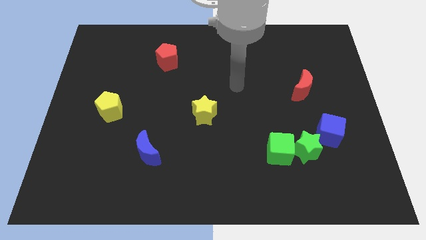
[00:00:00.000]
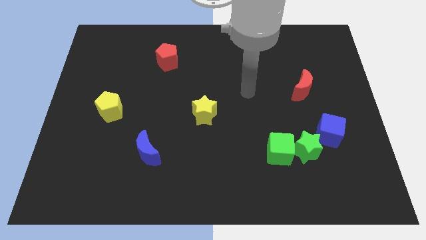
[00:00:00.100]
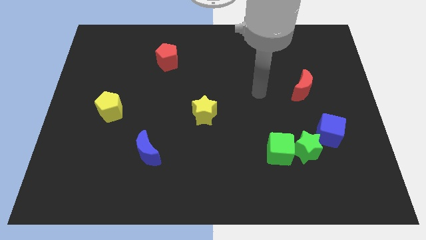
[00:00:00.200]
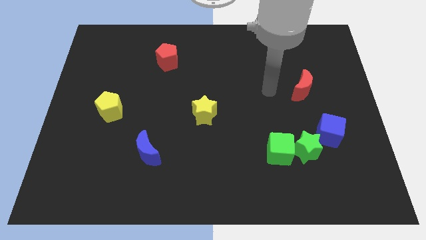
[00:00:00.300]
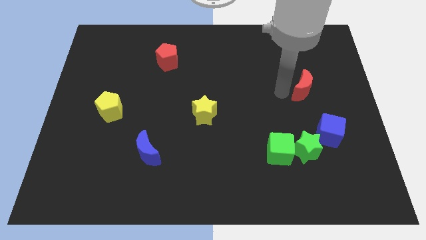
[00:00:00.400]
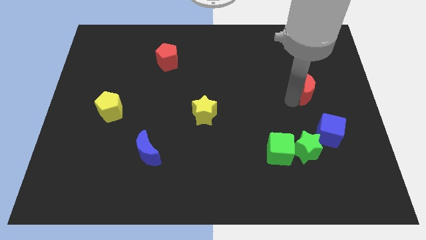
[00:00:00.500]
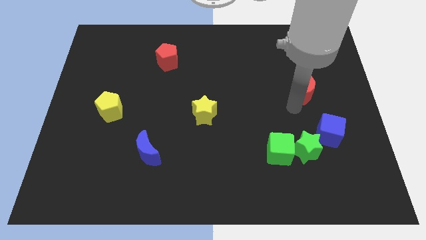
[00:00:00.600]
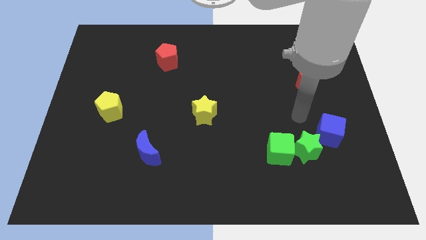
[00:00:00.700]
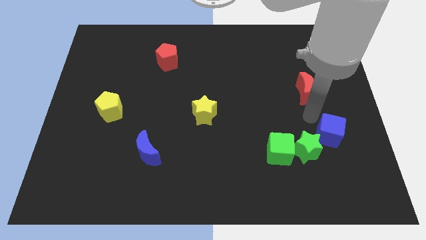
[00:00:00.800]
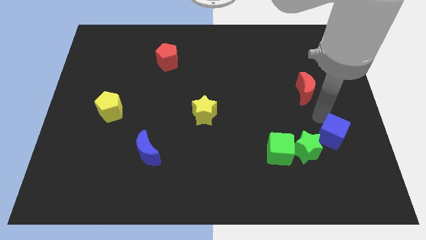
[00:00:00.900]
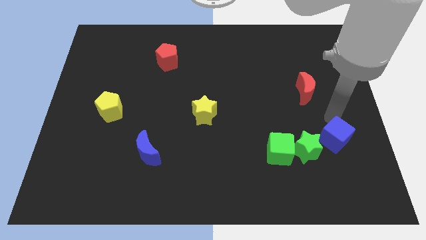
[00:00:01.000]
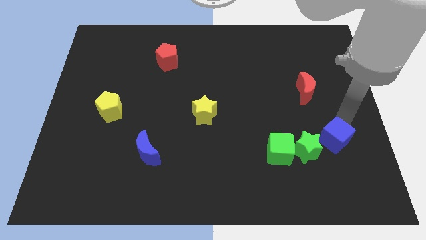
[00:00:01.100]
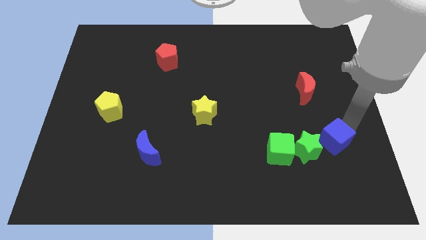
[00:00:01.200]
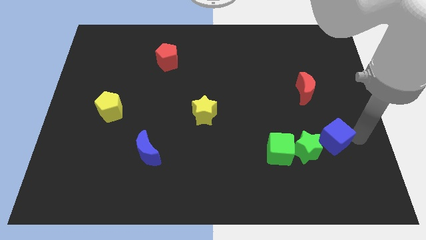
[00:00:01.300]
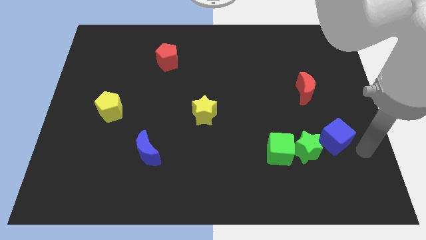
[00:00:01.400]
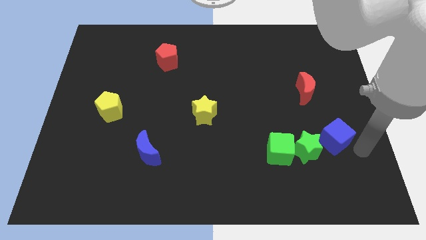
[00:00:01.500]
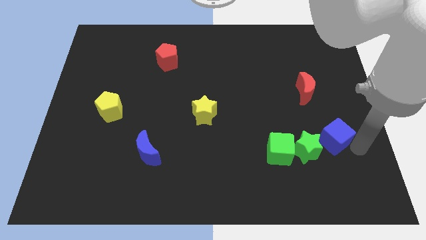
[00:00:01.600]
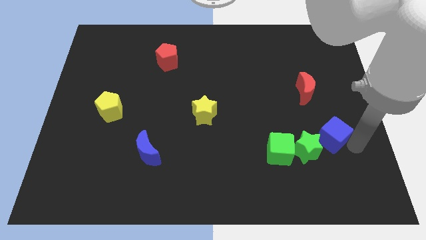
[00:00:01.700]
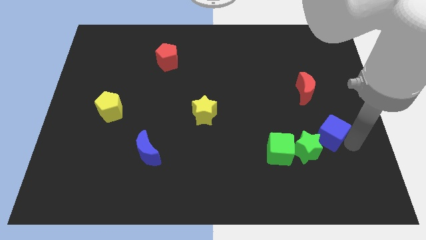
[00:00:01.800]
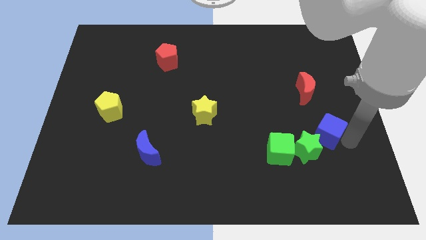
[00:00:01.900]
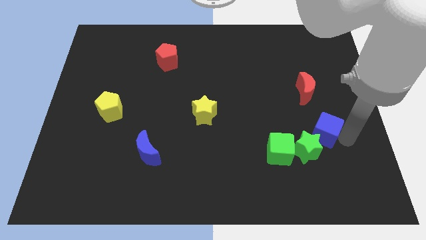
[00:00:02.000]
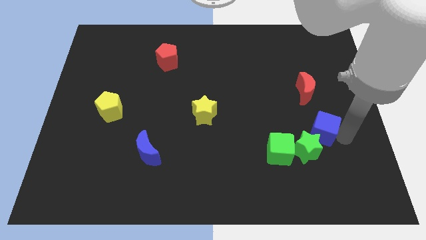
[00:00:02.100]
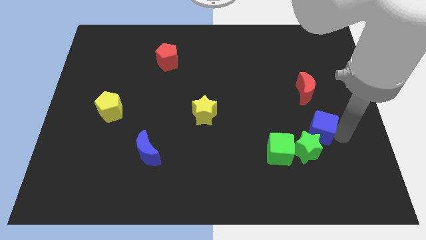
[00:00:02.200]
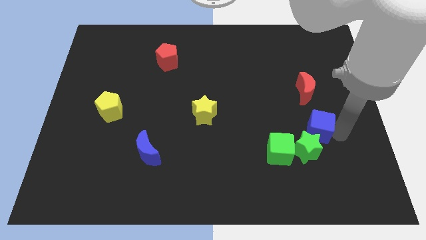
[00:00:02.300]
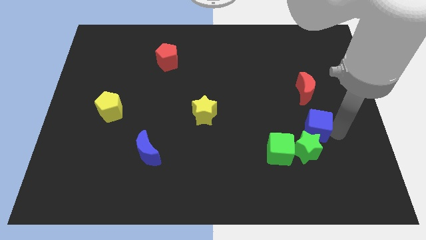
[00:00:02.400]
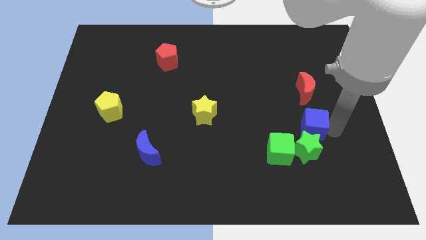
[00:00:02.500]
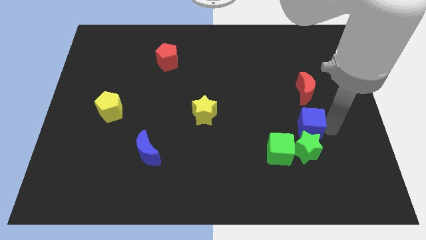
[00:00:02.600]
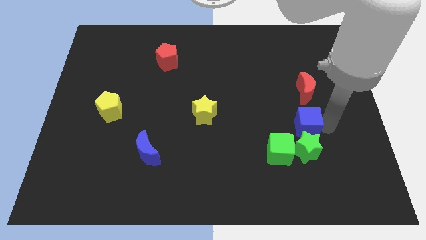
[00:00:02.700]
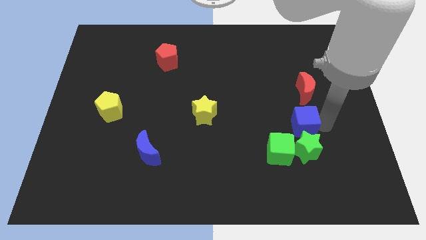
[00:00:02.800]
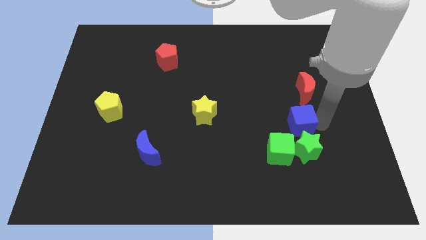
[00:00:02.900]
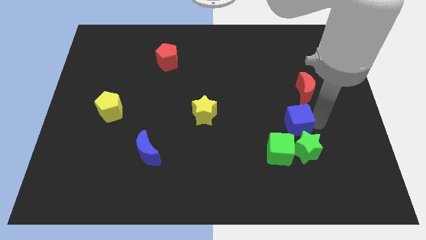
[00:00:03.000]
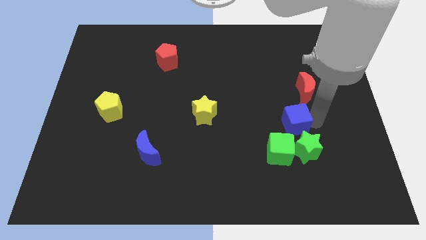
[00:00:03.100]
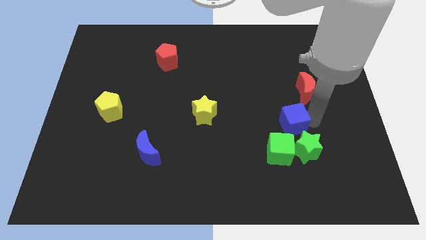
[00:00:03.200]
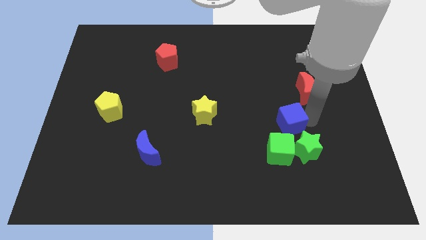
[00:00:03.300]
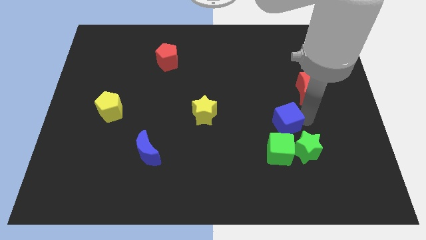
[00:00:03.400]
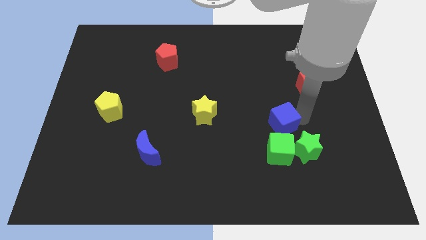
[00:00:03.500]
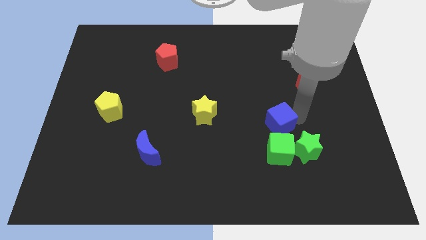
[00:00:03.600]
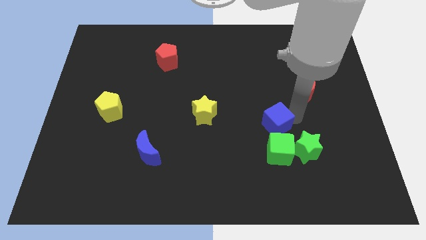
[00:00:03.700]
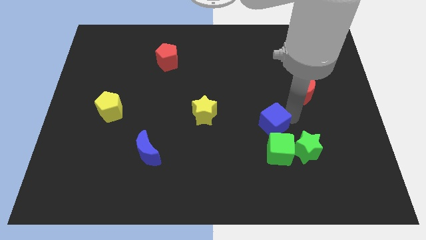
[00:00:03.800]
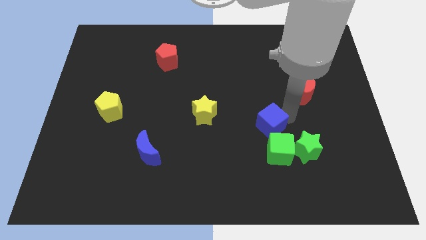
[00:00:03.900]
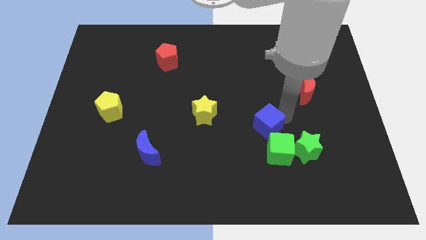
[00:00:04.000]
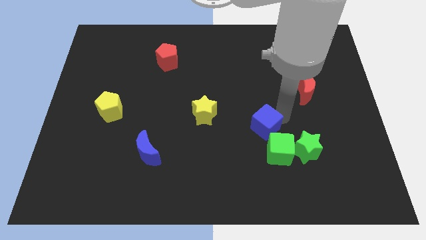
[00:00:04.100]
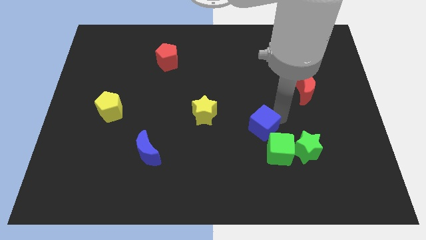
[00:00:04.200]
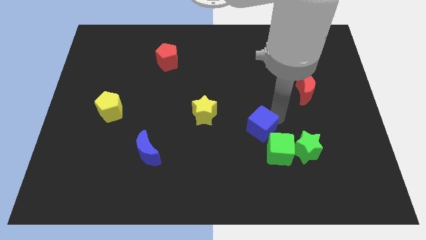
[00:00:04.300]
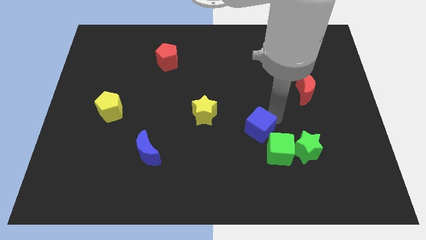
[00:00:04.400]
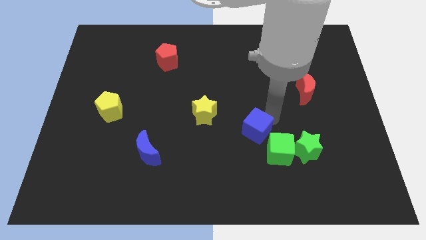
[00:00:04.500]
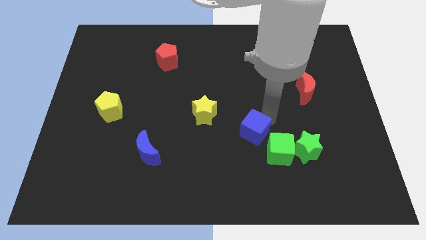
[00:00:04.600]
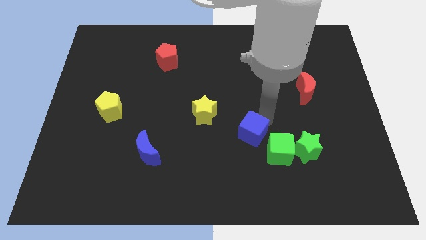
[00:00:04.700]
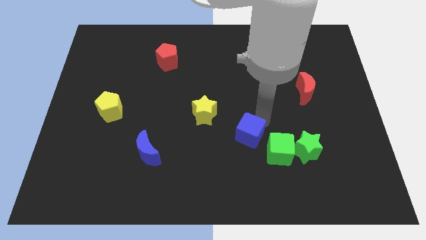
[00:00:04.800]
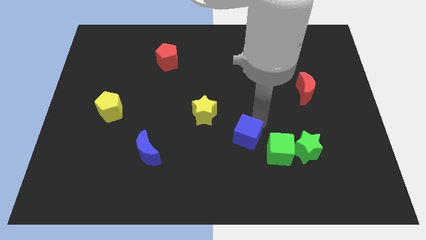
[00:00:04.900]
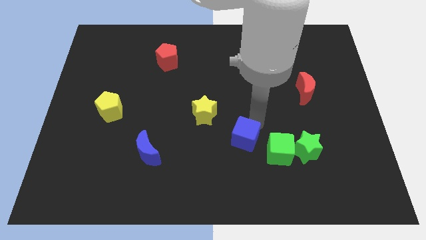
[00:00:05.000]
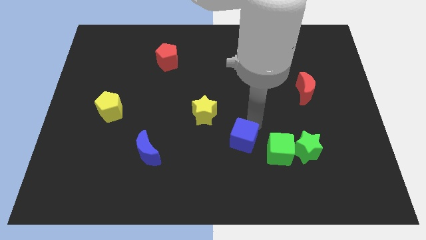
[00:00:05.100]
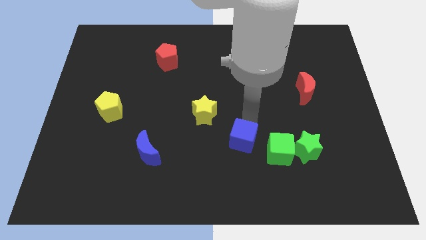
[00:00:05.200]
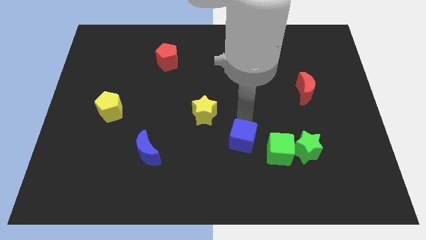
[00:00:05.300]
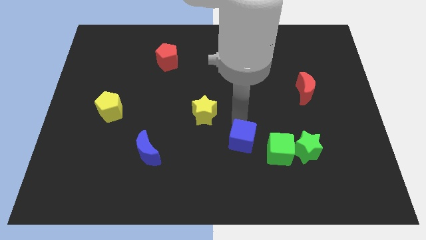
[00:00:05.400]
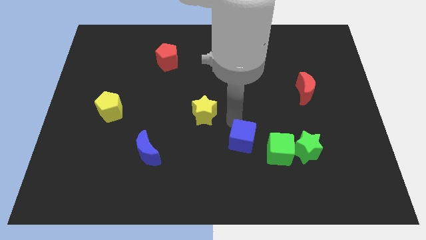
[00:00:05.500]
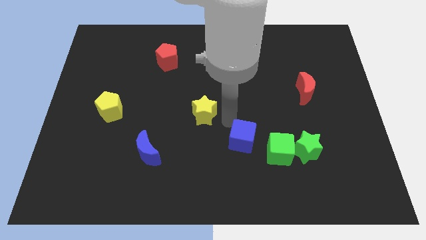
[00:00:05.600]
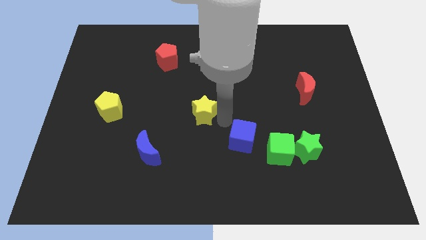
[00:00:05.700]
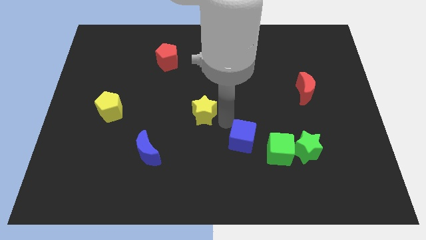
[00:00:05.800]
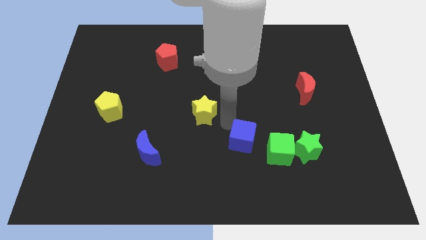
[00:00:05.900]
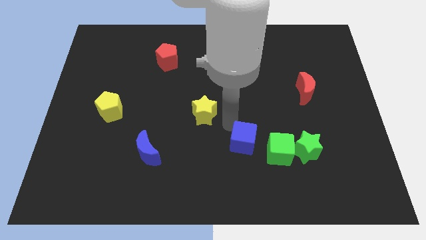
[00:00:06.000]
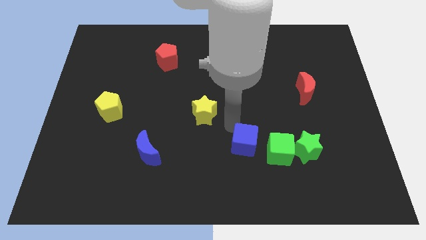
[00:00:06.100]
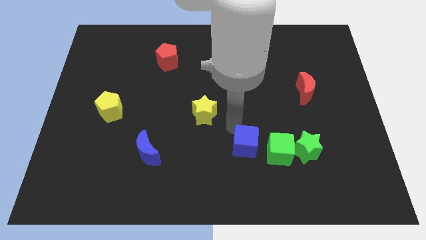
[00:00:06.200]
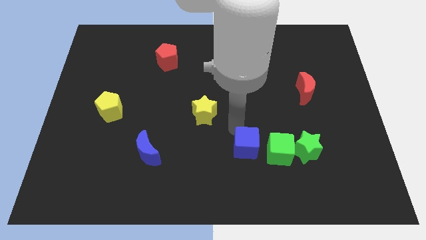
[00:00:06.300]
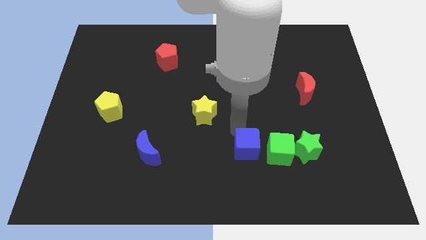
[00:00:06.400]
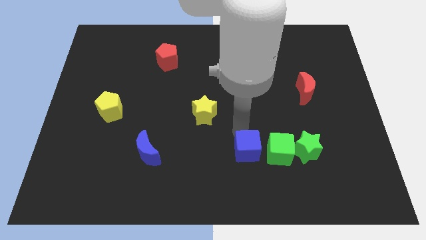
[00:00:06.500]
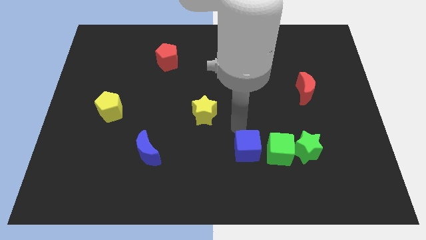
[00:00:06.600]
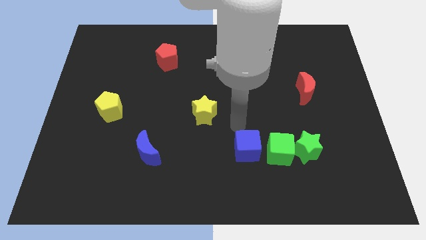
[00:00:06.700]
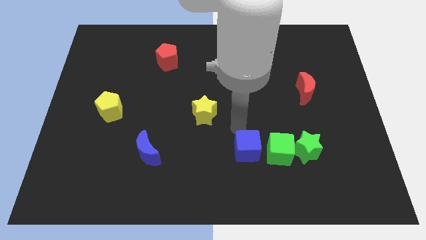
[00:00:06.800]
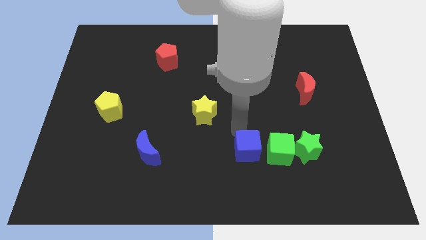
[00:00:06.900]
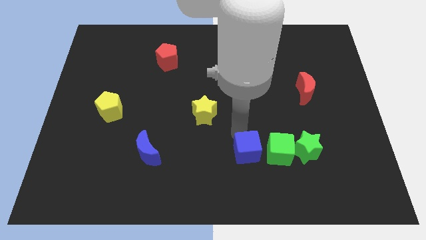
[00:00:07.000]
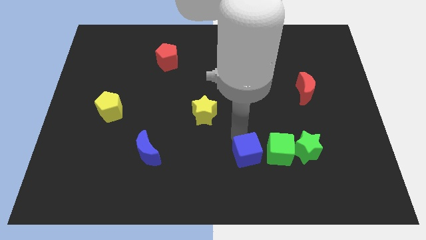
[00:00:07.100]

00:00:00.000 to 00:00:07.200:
move the blue cube diagonally down and to the left of the green cube
